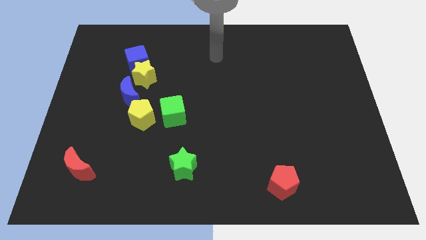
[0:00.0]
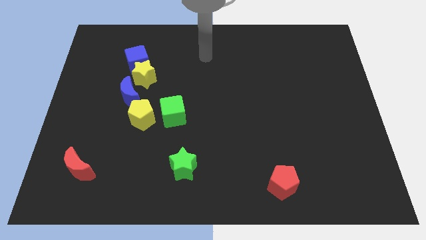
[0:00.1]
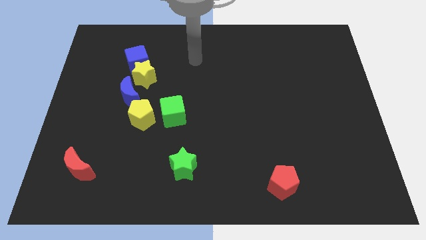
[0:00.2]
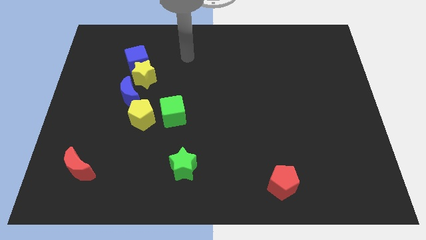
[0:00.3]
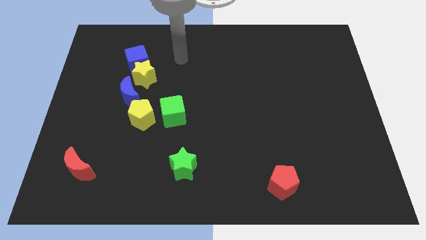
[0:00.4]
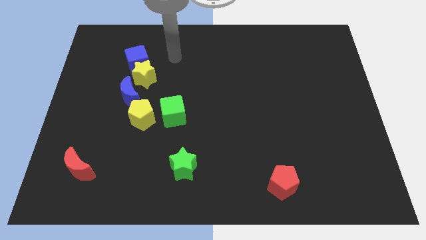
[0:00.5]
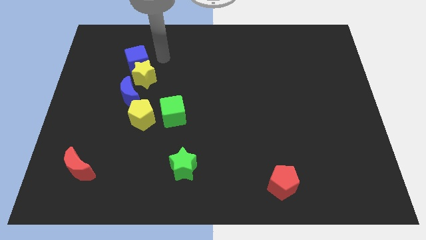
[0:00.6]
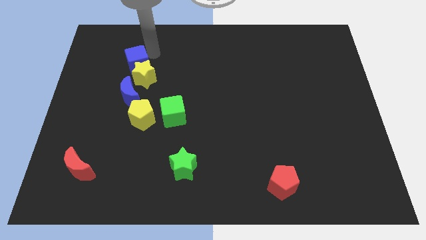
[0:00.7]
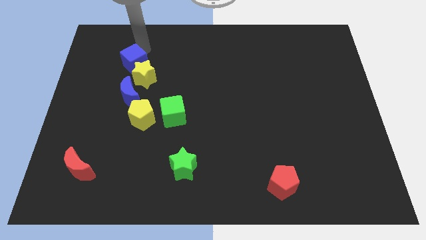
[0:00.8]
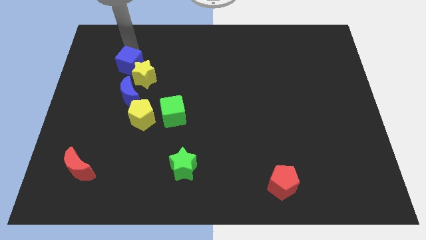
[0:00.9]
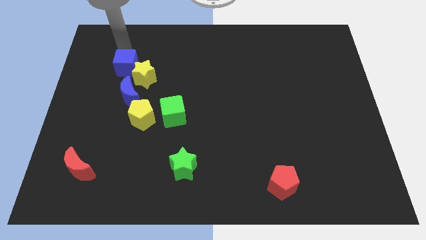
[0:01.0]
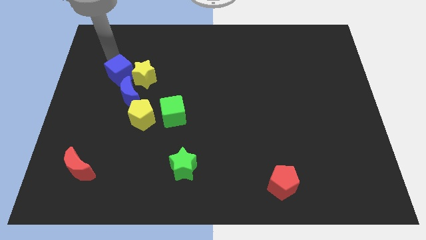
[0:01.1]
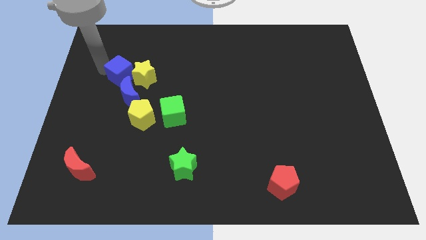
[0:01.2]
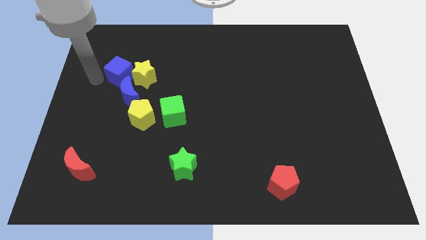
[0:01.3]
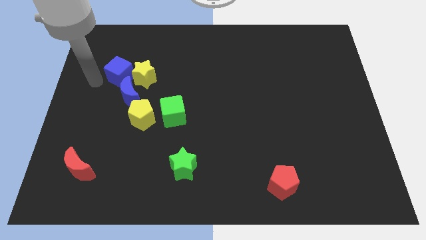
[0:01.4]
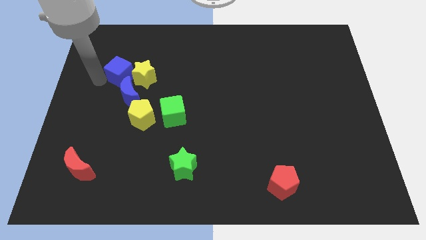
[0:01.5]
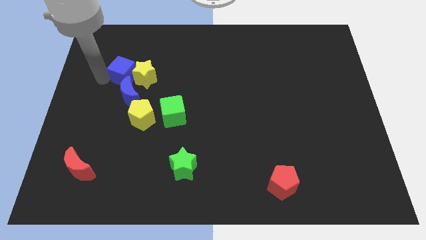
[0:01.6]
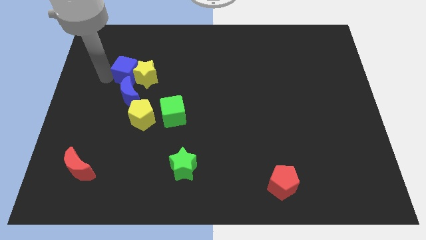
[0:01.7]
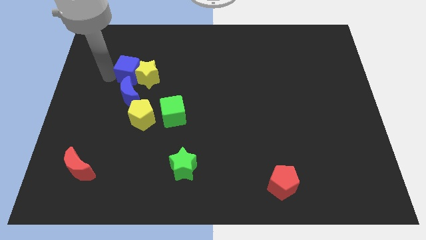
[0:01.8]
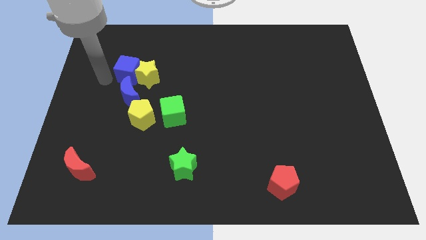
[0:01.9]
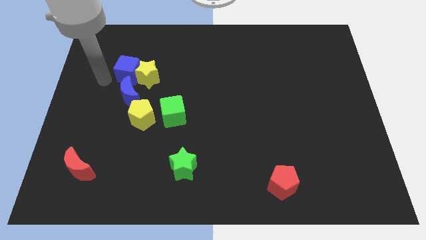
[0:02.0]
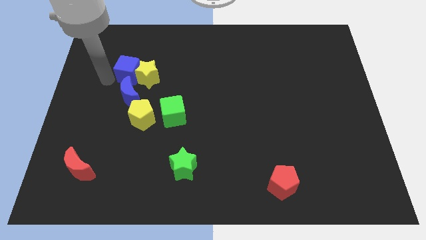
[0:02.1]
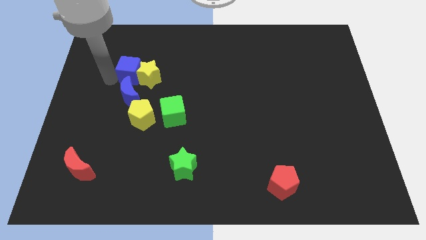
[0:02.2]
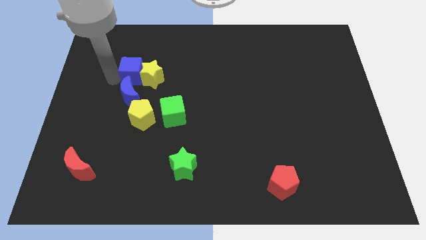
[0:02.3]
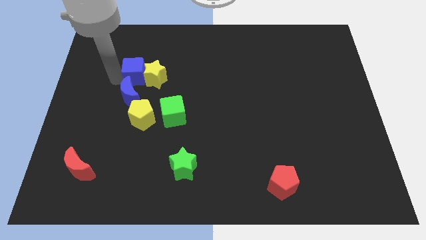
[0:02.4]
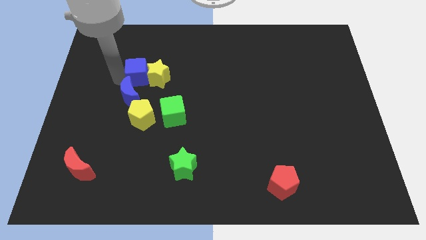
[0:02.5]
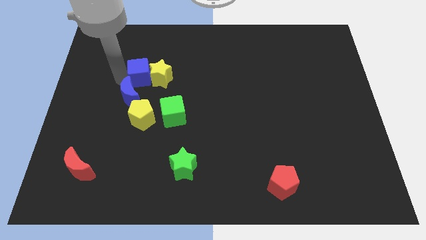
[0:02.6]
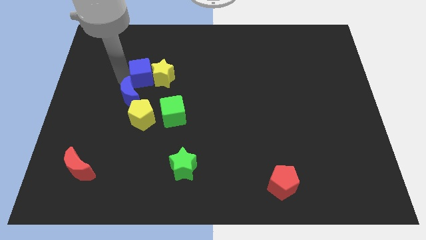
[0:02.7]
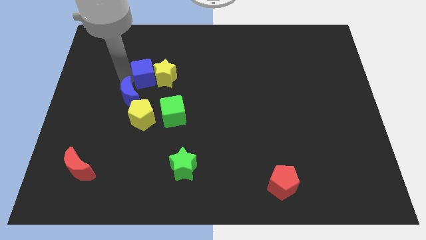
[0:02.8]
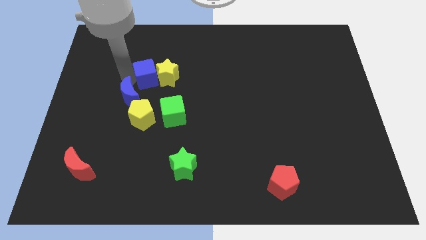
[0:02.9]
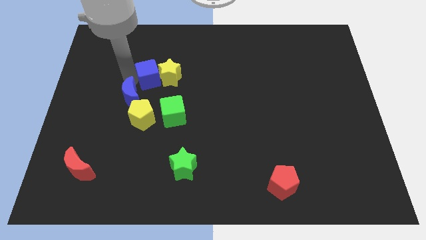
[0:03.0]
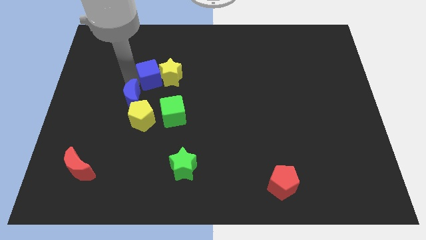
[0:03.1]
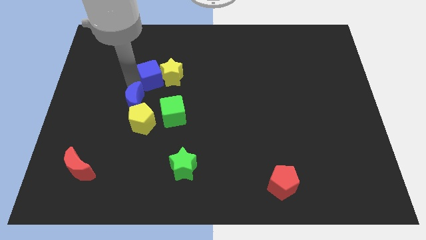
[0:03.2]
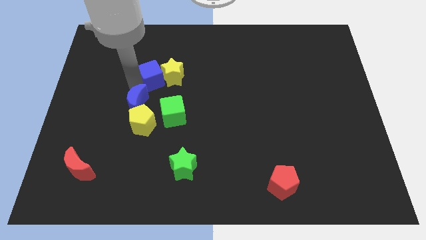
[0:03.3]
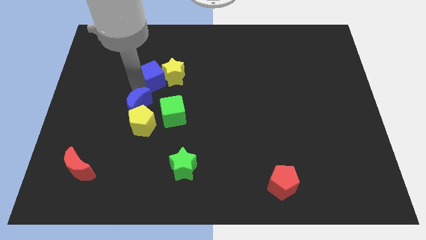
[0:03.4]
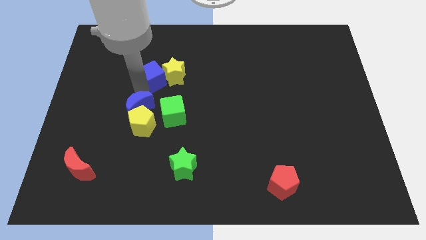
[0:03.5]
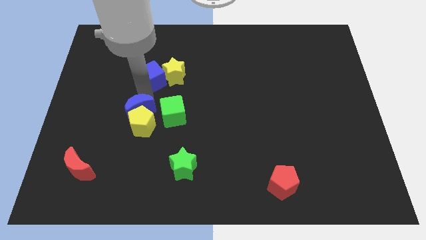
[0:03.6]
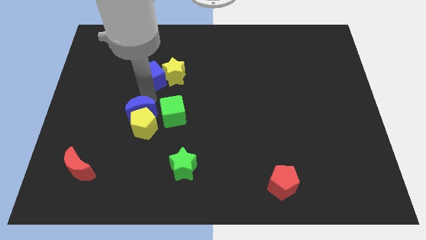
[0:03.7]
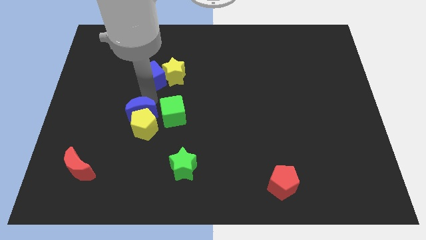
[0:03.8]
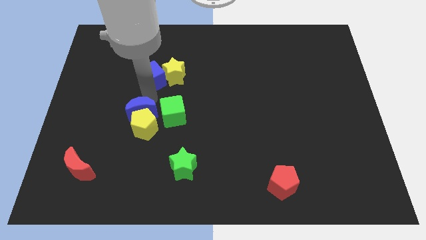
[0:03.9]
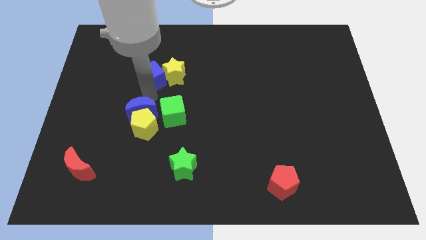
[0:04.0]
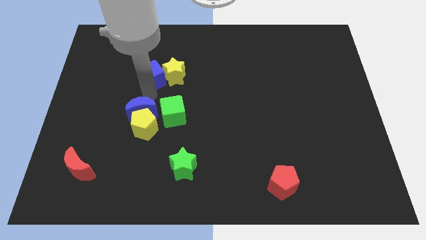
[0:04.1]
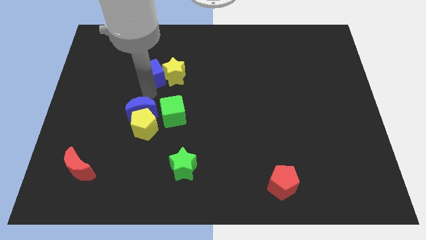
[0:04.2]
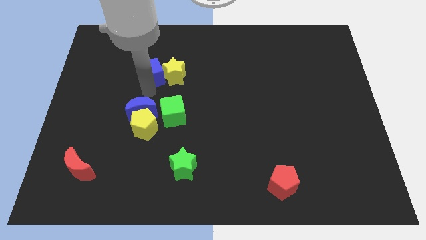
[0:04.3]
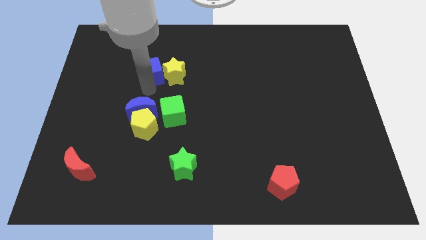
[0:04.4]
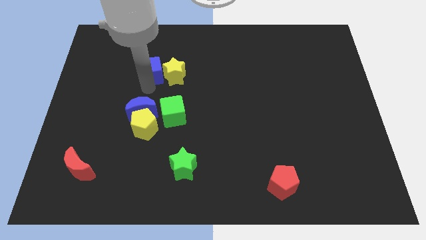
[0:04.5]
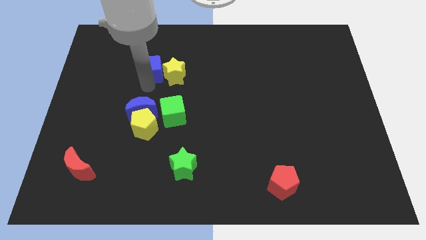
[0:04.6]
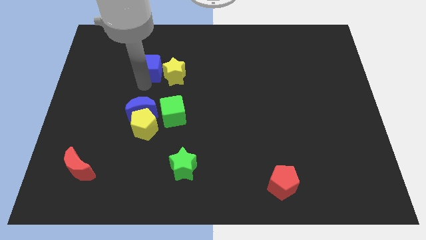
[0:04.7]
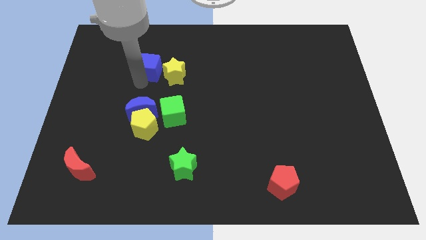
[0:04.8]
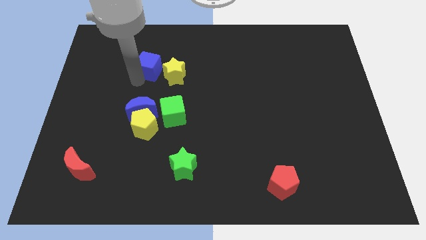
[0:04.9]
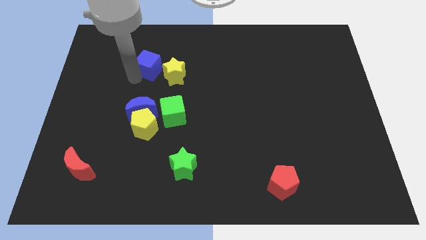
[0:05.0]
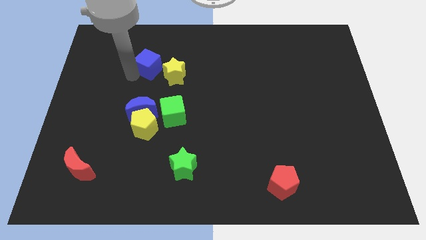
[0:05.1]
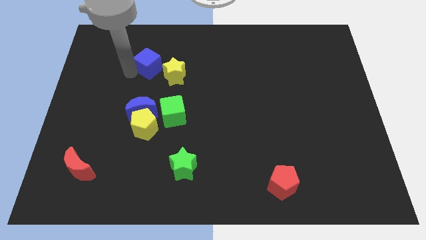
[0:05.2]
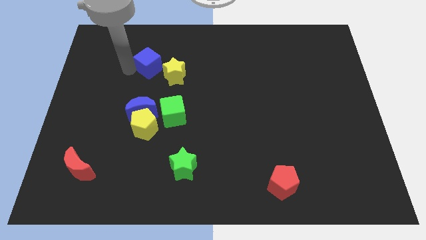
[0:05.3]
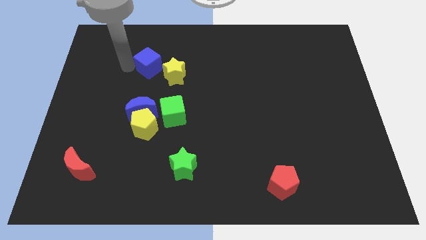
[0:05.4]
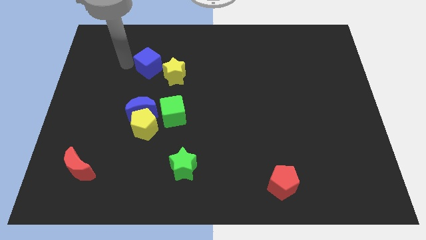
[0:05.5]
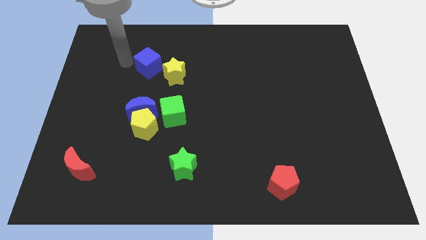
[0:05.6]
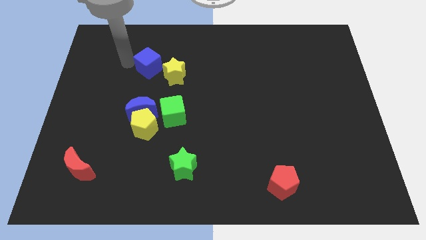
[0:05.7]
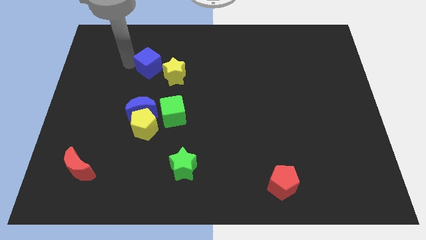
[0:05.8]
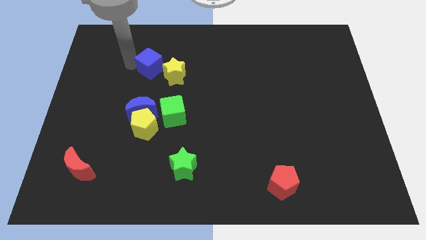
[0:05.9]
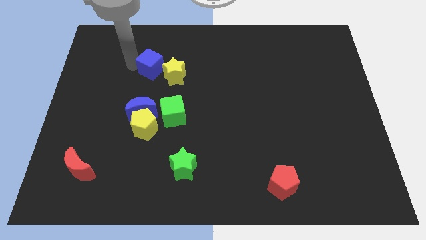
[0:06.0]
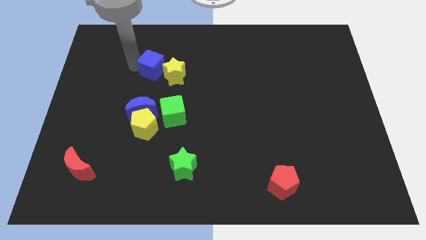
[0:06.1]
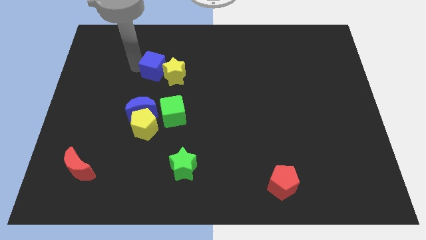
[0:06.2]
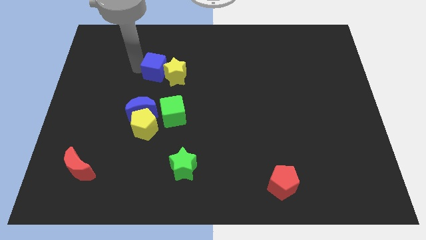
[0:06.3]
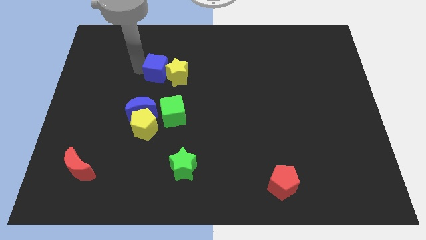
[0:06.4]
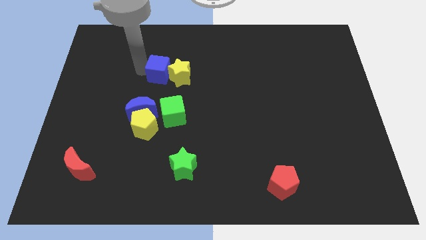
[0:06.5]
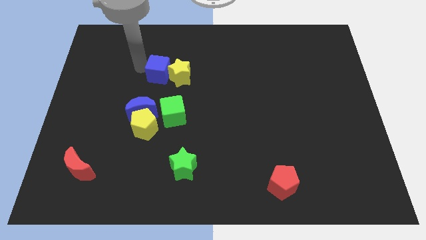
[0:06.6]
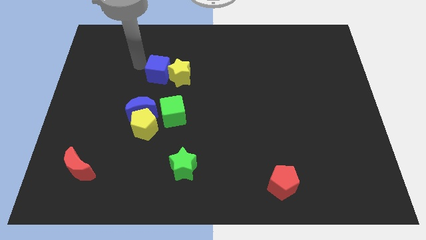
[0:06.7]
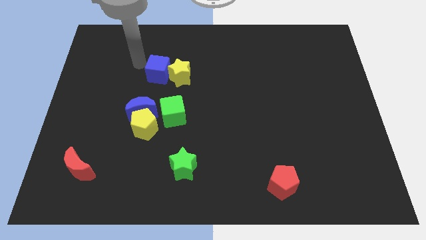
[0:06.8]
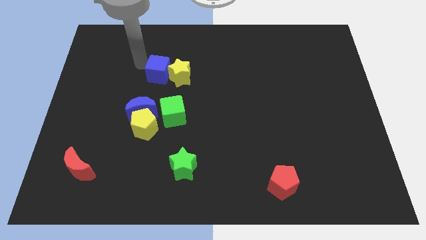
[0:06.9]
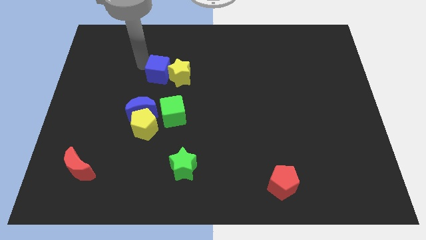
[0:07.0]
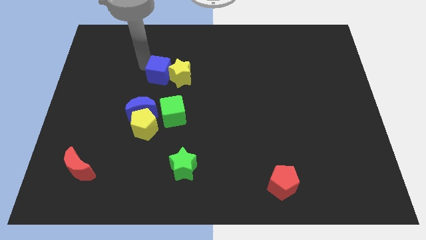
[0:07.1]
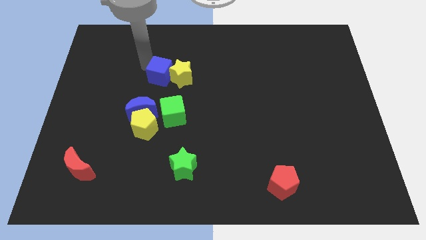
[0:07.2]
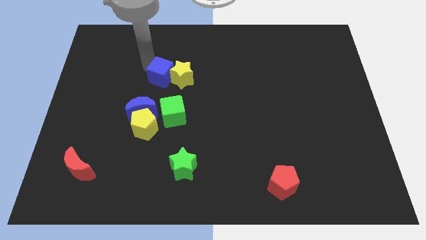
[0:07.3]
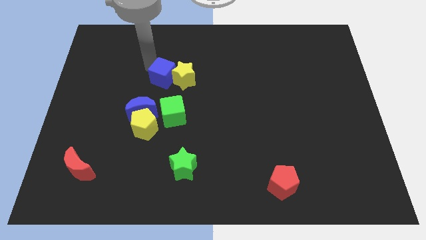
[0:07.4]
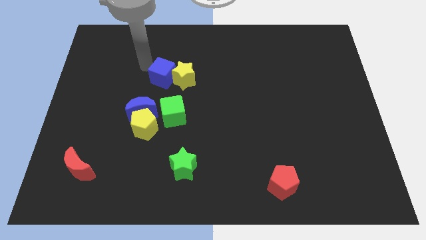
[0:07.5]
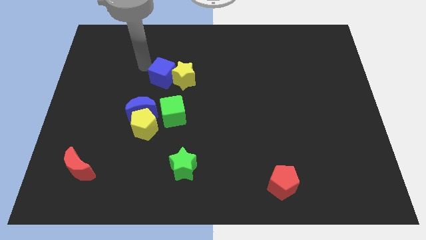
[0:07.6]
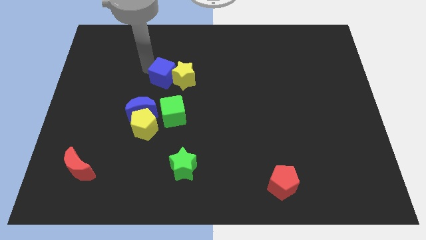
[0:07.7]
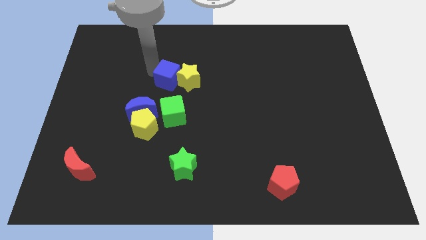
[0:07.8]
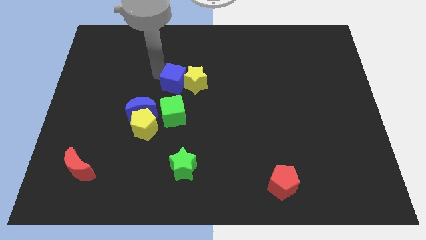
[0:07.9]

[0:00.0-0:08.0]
move the blue cube to the center
